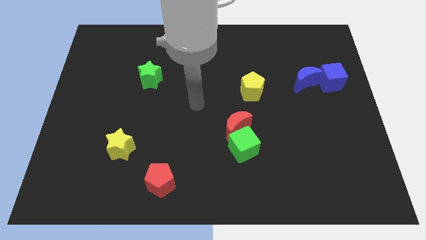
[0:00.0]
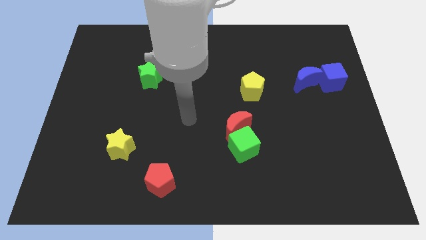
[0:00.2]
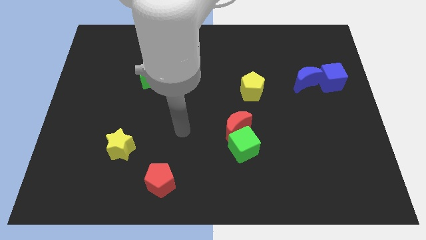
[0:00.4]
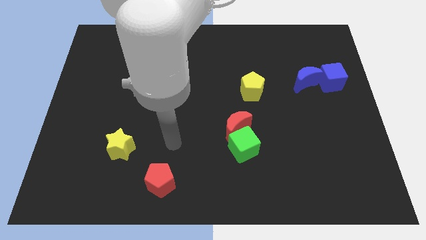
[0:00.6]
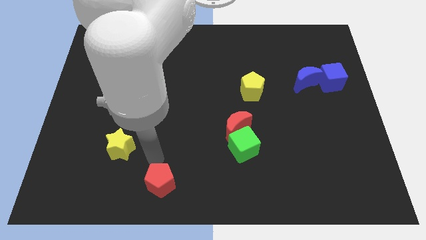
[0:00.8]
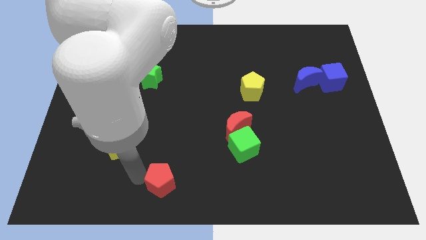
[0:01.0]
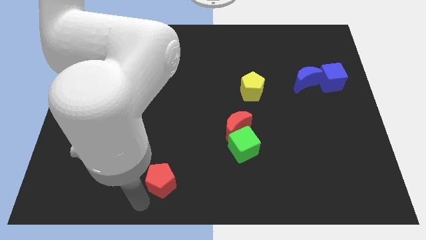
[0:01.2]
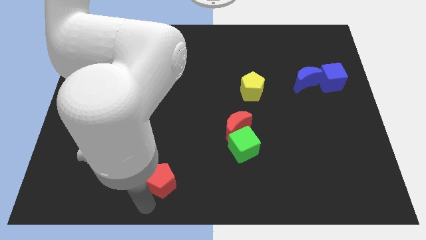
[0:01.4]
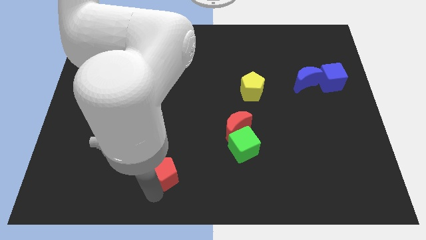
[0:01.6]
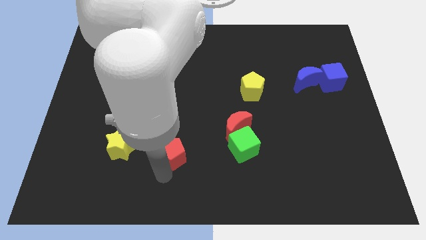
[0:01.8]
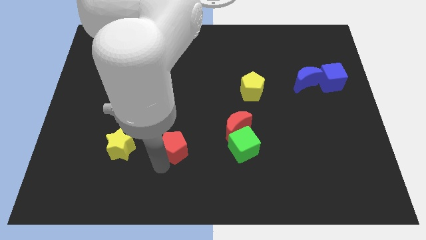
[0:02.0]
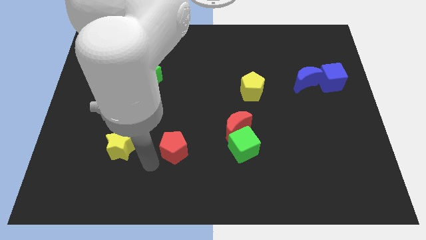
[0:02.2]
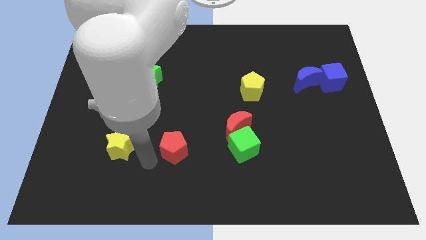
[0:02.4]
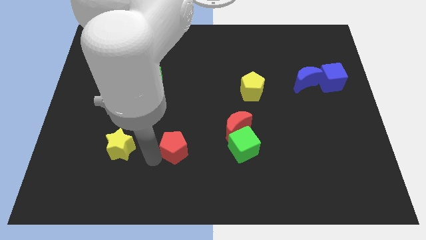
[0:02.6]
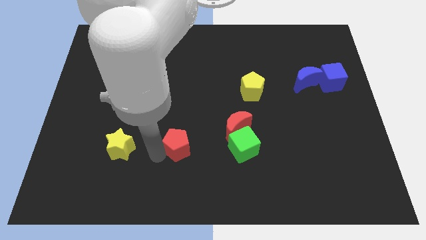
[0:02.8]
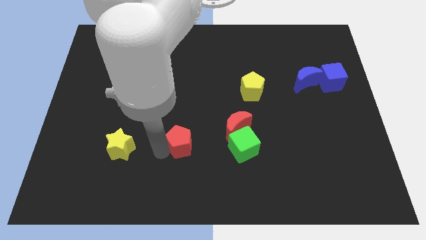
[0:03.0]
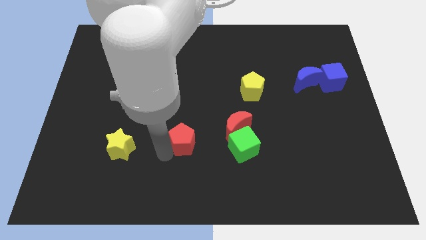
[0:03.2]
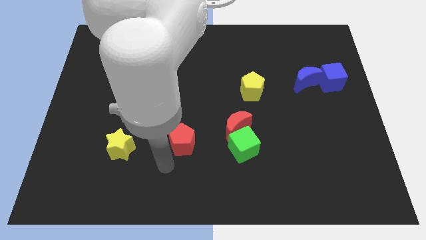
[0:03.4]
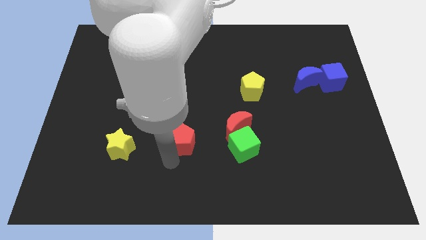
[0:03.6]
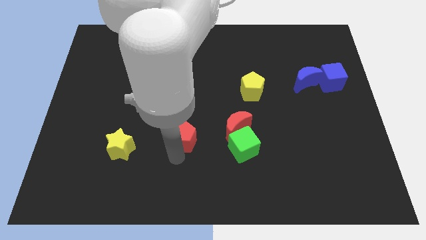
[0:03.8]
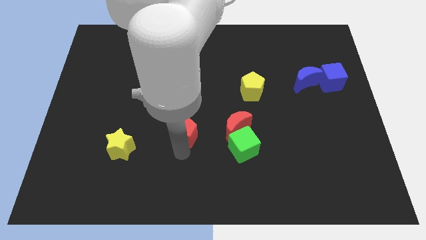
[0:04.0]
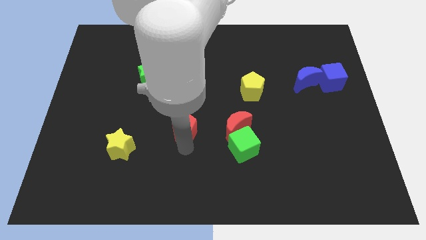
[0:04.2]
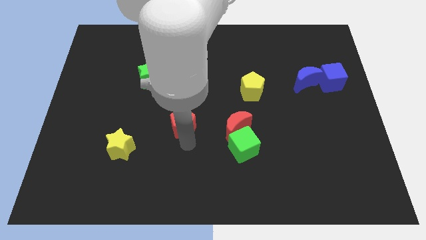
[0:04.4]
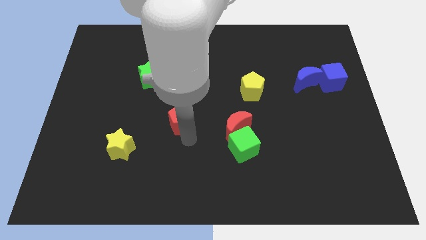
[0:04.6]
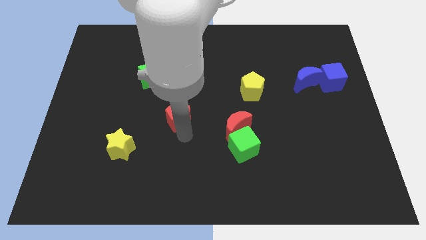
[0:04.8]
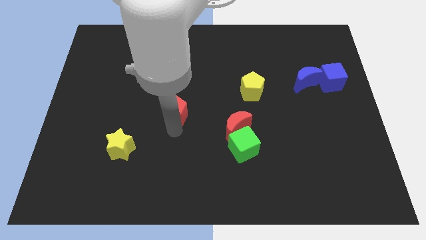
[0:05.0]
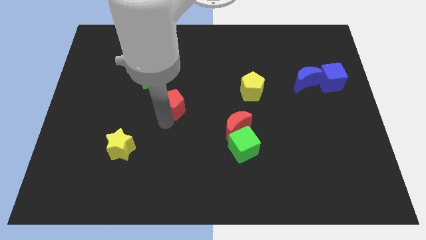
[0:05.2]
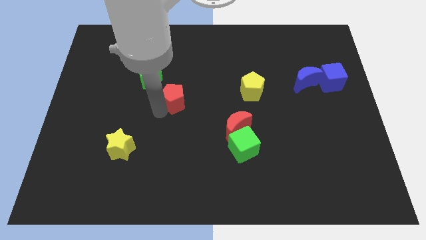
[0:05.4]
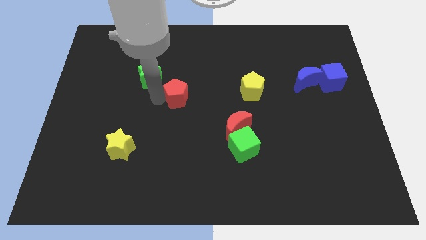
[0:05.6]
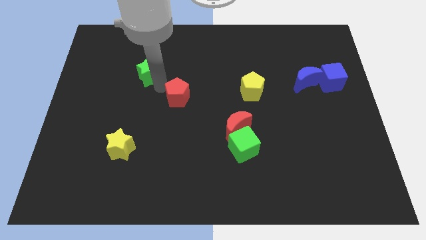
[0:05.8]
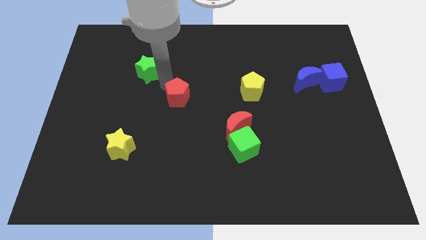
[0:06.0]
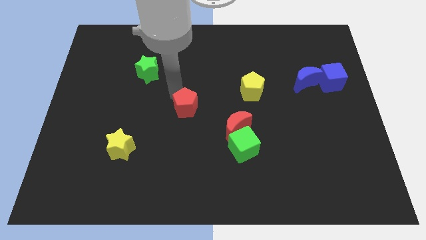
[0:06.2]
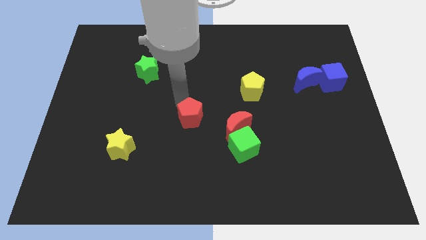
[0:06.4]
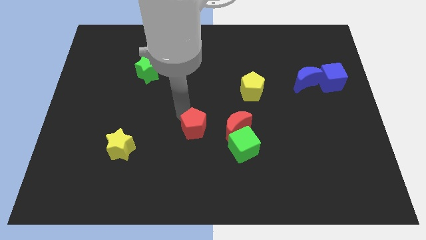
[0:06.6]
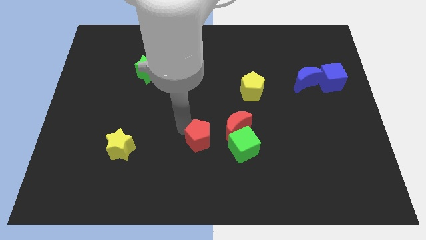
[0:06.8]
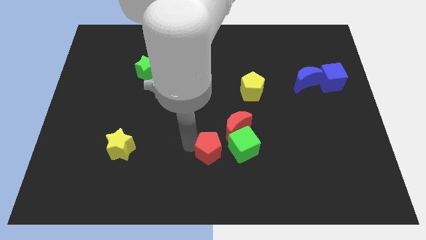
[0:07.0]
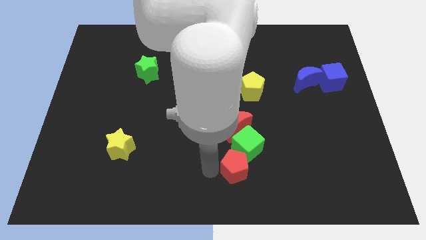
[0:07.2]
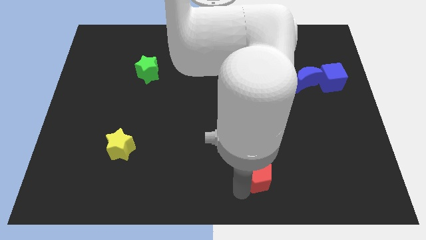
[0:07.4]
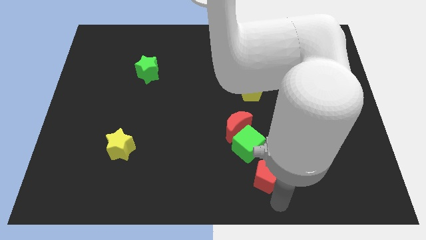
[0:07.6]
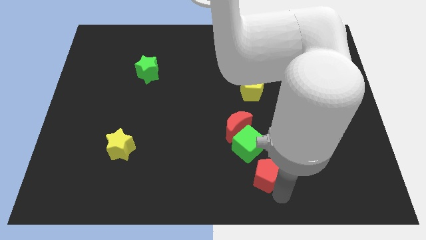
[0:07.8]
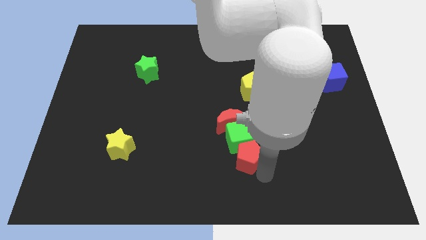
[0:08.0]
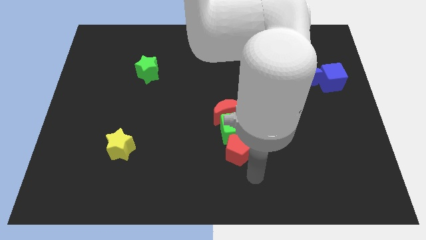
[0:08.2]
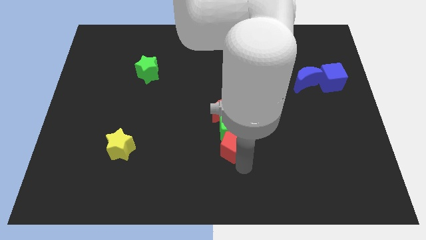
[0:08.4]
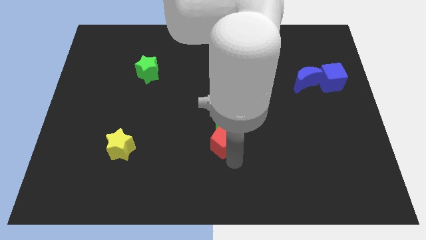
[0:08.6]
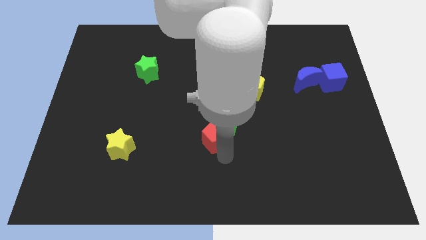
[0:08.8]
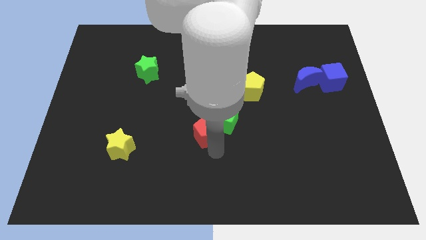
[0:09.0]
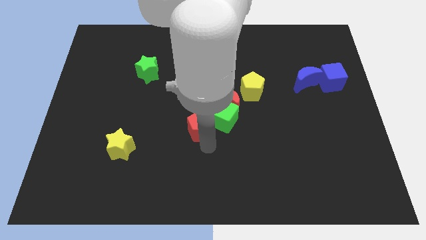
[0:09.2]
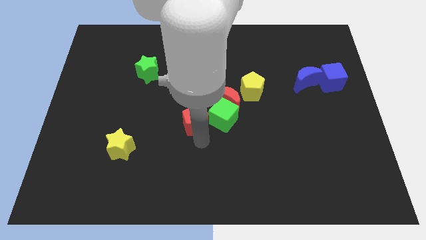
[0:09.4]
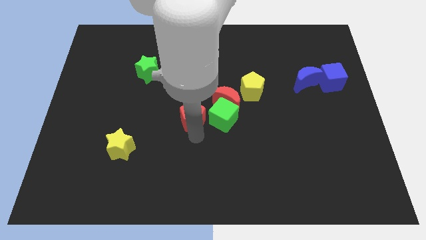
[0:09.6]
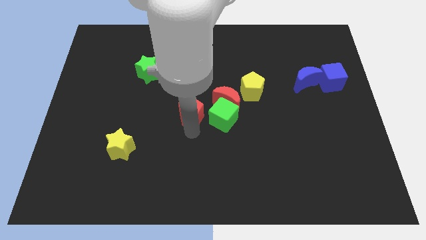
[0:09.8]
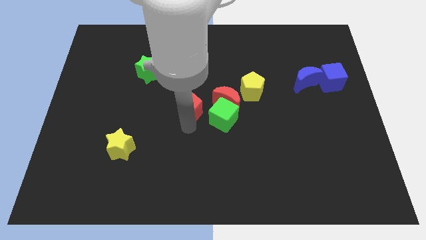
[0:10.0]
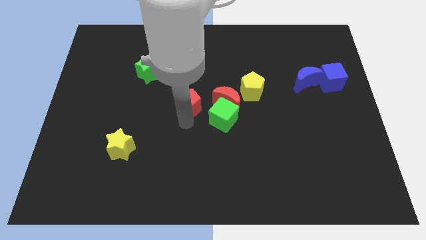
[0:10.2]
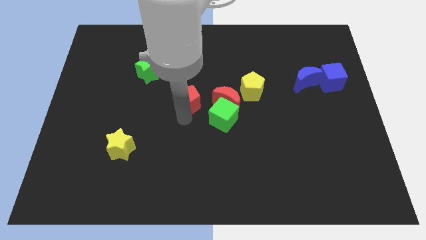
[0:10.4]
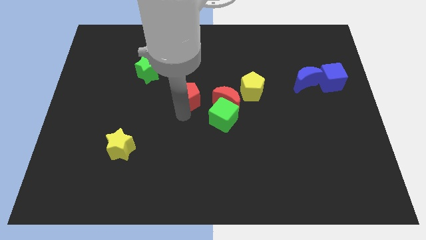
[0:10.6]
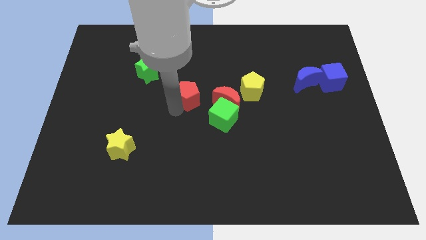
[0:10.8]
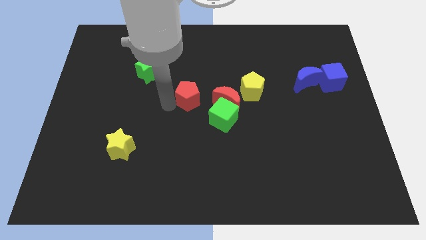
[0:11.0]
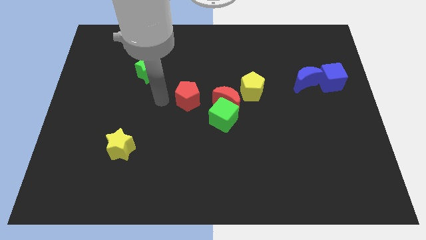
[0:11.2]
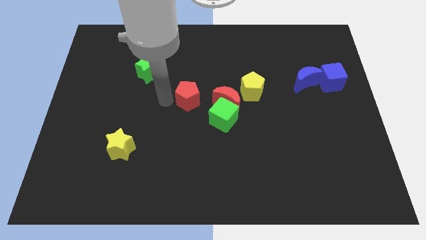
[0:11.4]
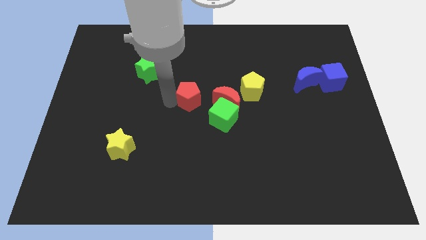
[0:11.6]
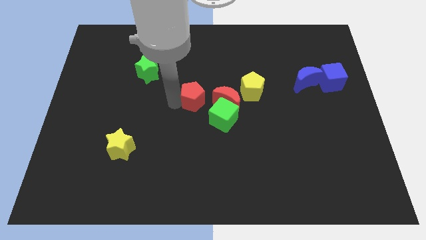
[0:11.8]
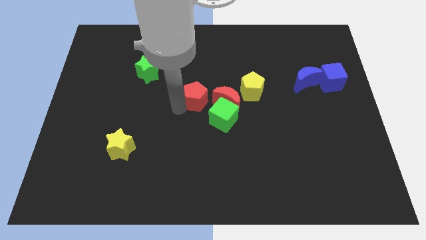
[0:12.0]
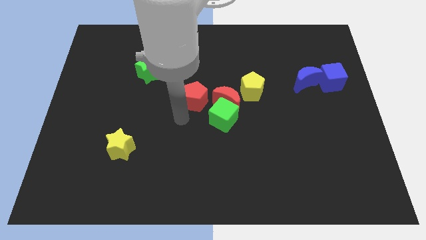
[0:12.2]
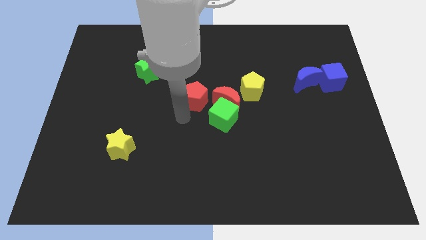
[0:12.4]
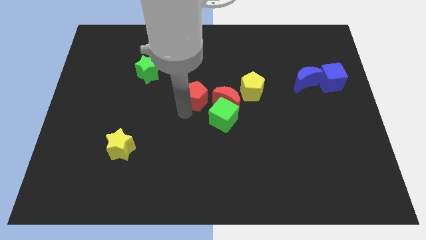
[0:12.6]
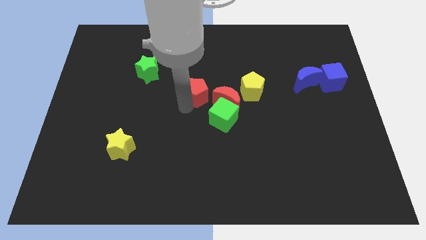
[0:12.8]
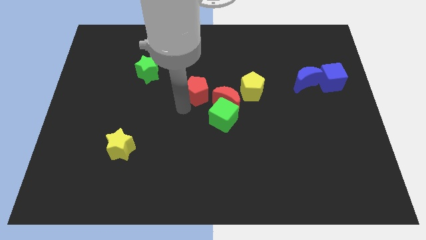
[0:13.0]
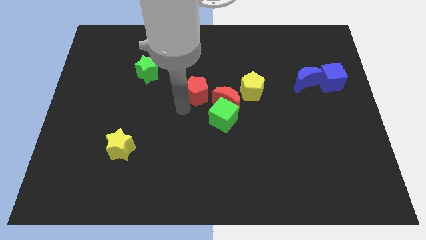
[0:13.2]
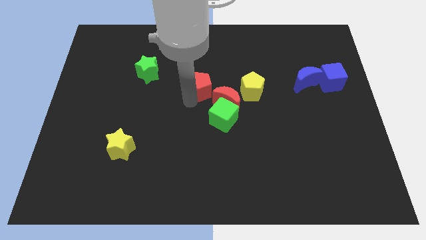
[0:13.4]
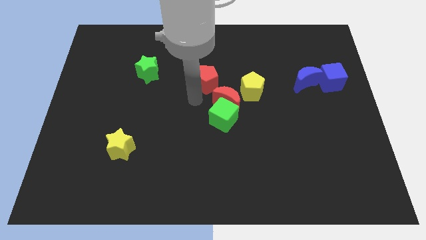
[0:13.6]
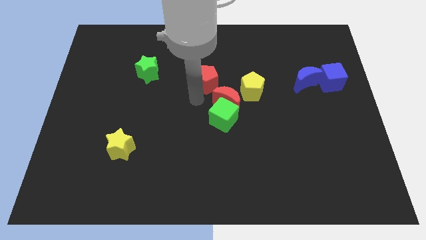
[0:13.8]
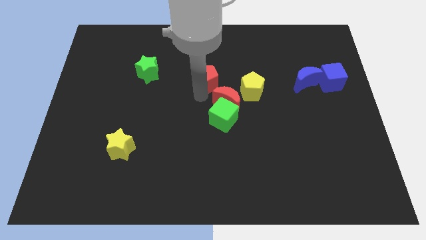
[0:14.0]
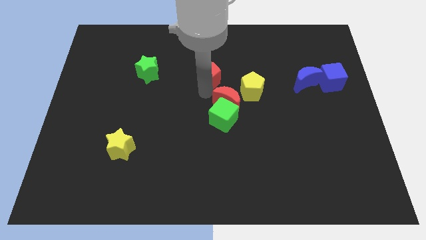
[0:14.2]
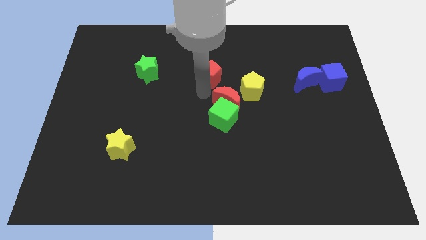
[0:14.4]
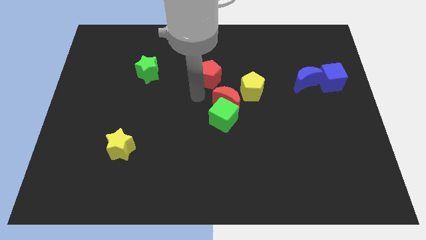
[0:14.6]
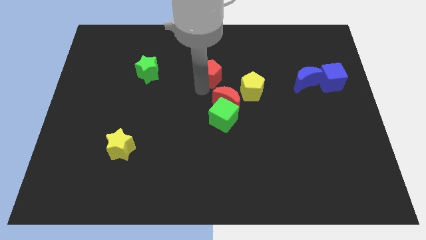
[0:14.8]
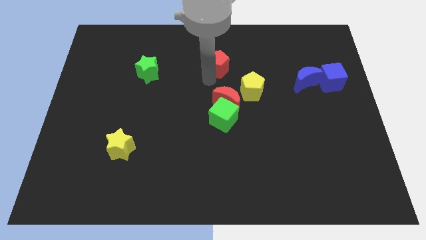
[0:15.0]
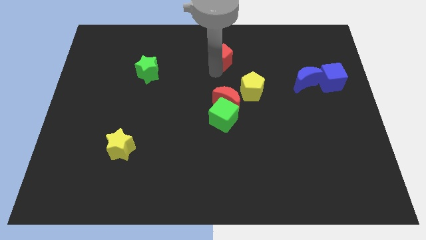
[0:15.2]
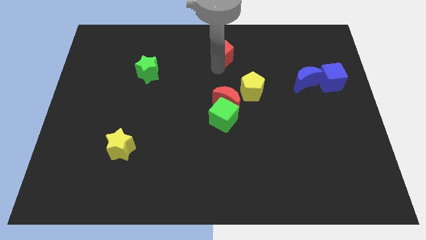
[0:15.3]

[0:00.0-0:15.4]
put the red pentagon to the top
